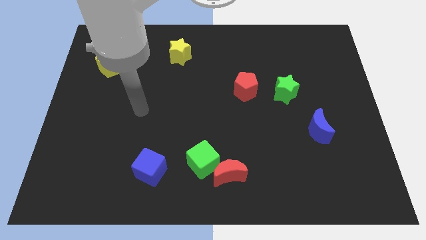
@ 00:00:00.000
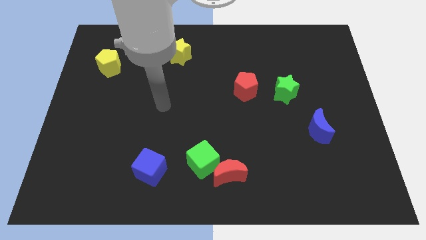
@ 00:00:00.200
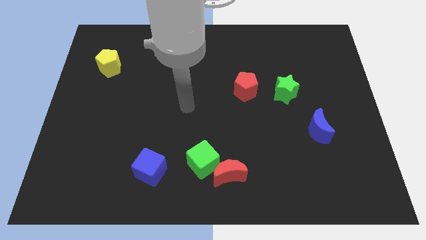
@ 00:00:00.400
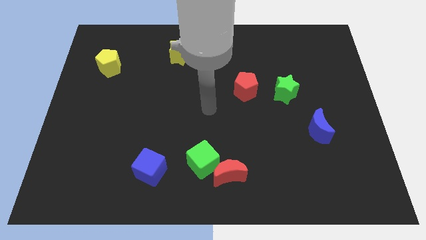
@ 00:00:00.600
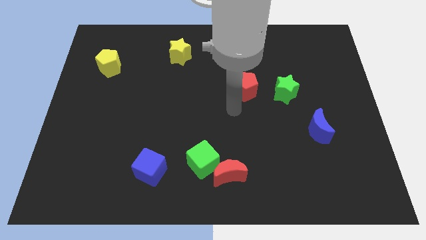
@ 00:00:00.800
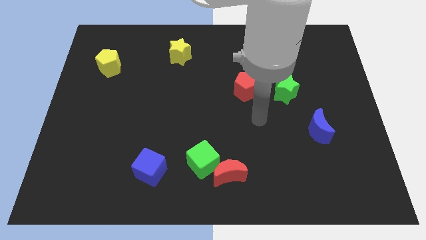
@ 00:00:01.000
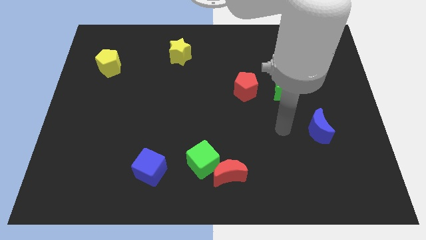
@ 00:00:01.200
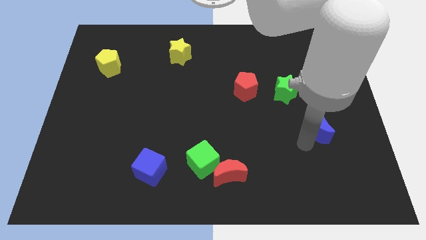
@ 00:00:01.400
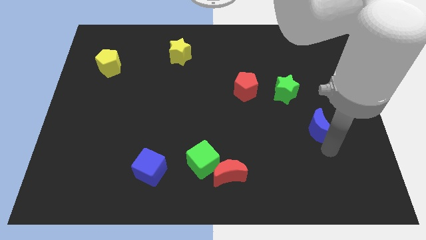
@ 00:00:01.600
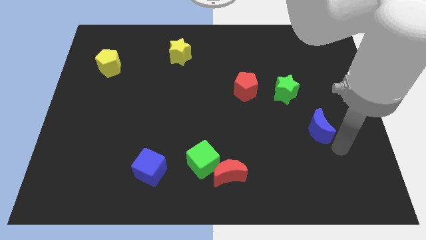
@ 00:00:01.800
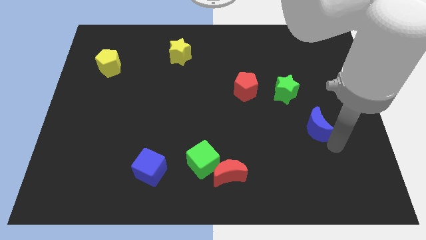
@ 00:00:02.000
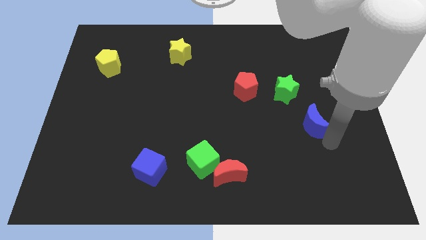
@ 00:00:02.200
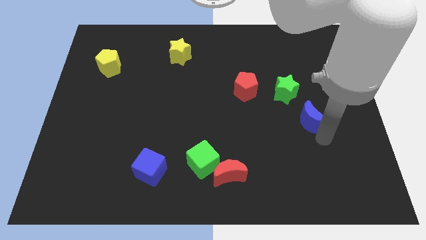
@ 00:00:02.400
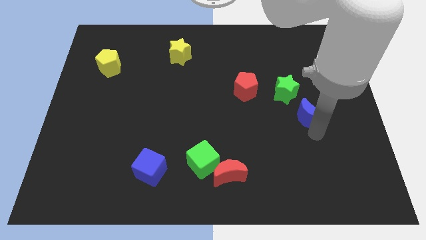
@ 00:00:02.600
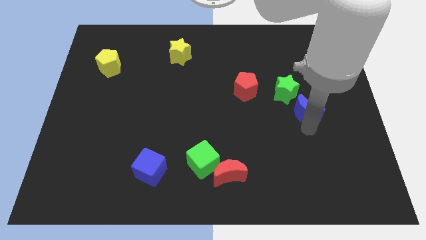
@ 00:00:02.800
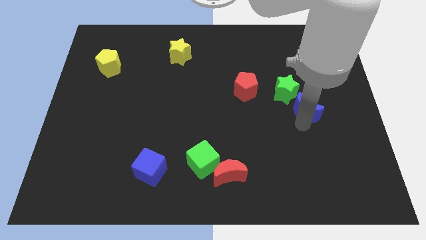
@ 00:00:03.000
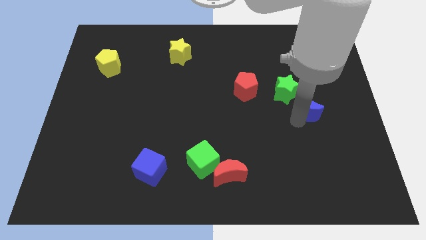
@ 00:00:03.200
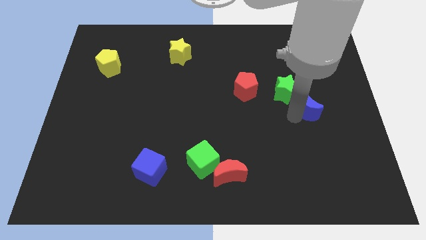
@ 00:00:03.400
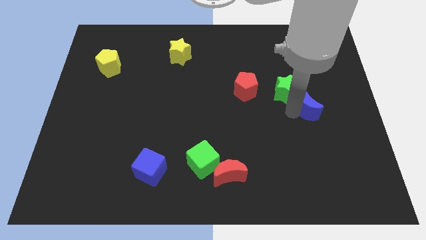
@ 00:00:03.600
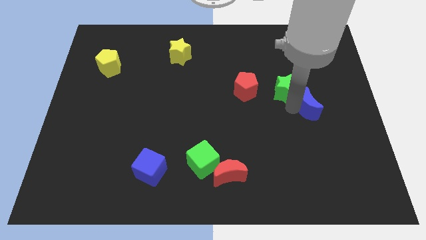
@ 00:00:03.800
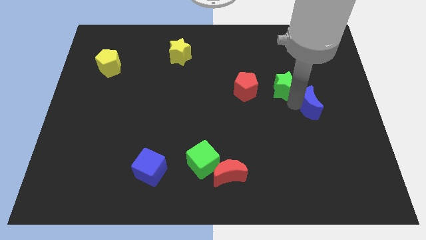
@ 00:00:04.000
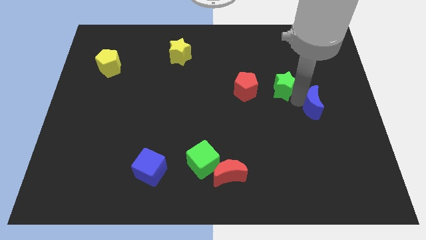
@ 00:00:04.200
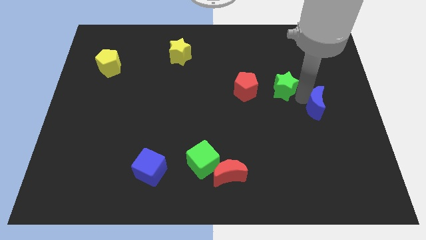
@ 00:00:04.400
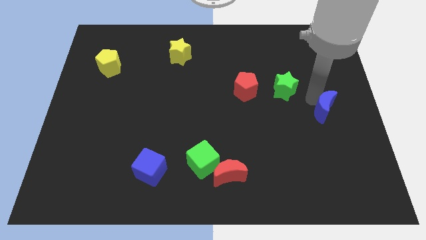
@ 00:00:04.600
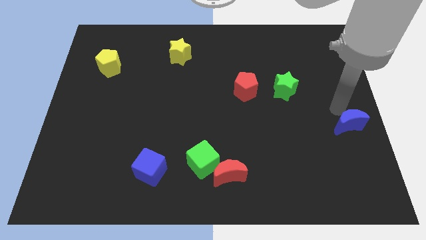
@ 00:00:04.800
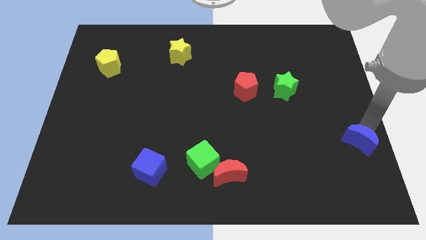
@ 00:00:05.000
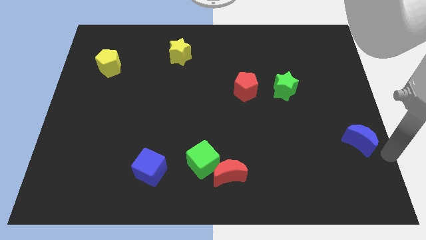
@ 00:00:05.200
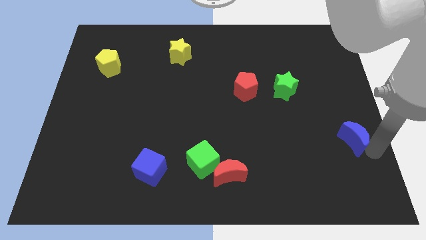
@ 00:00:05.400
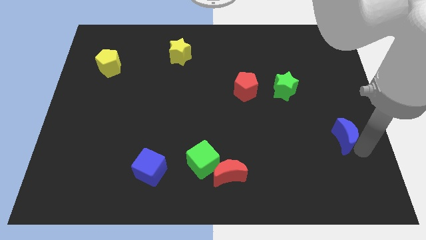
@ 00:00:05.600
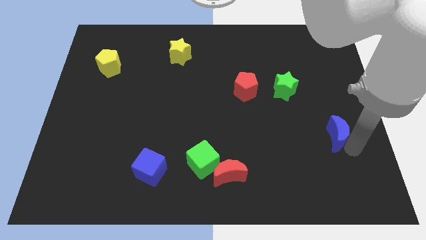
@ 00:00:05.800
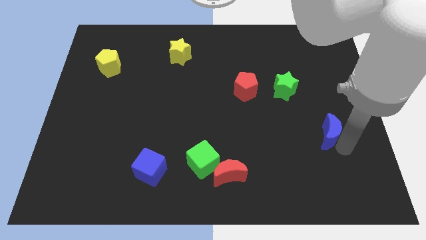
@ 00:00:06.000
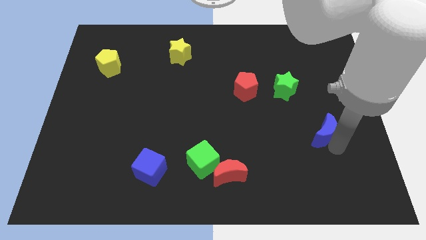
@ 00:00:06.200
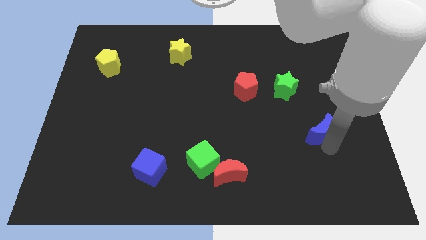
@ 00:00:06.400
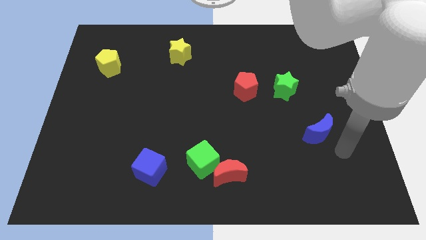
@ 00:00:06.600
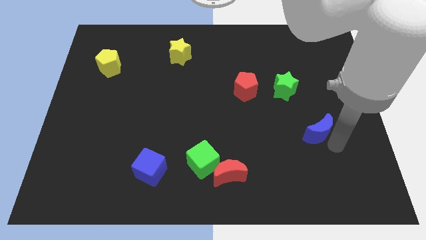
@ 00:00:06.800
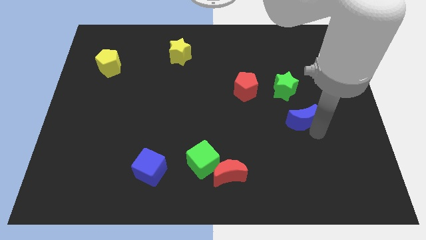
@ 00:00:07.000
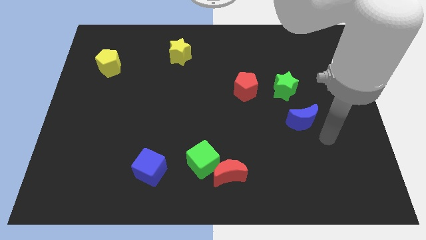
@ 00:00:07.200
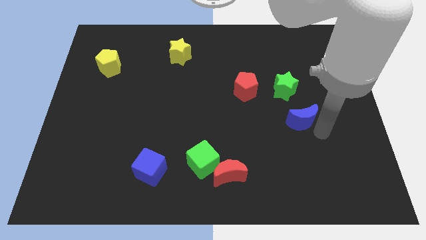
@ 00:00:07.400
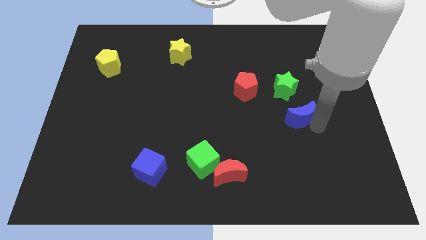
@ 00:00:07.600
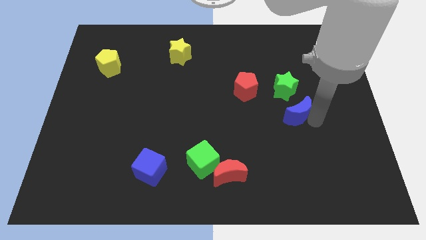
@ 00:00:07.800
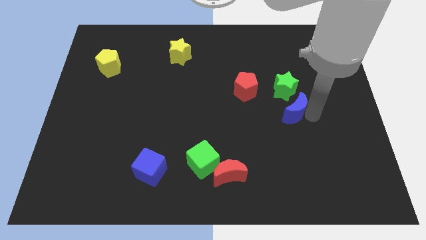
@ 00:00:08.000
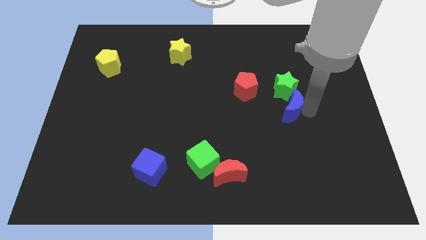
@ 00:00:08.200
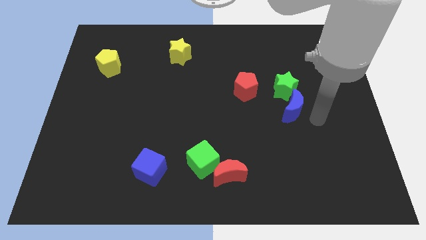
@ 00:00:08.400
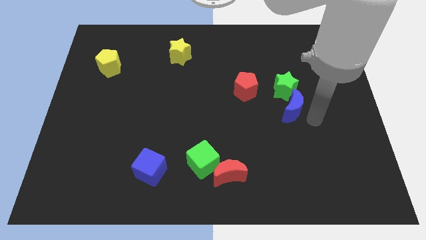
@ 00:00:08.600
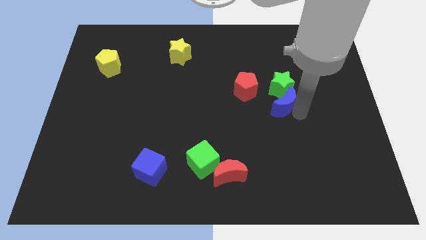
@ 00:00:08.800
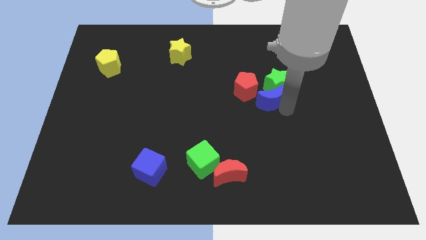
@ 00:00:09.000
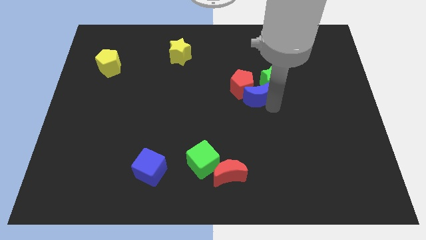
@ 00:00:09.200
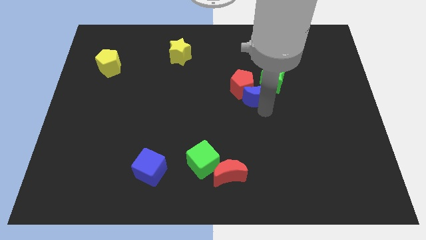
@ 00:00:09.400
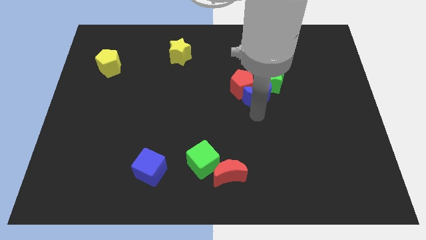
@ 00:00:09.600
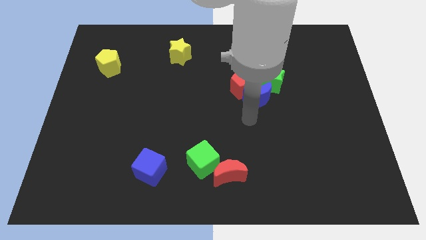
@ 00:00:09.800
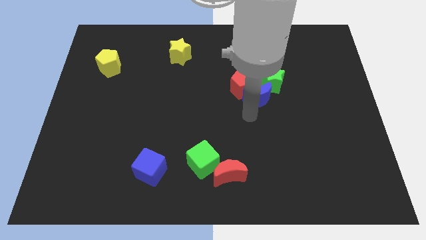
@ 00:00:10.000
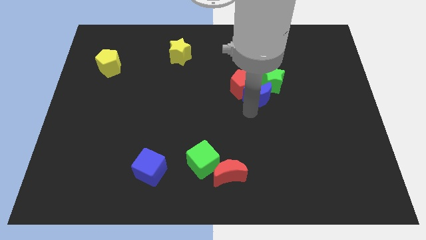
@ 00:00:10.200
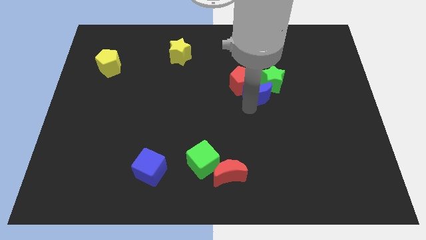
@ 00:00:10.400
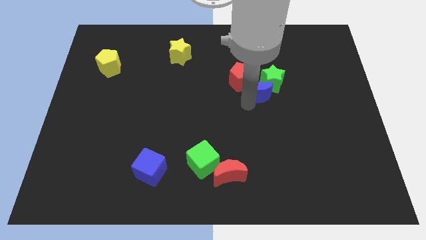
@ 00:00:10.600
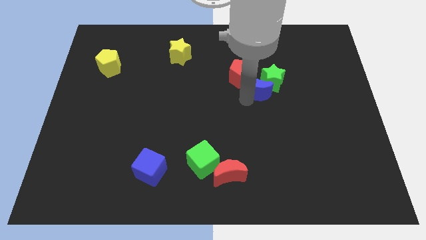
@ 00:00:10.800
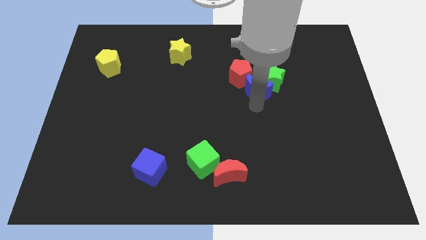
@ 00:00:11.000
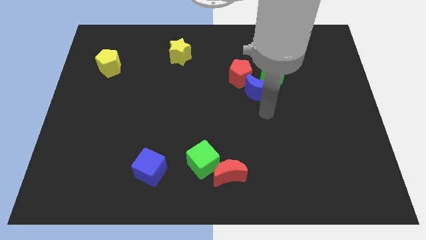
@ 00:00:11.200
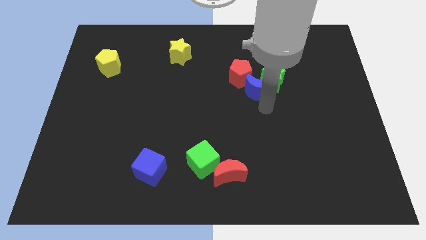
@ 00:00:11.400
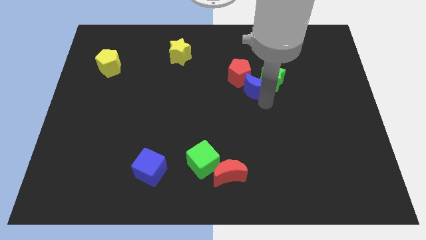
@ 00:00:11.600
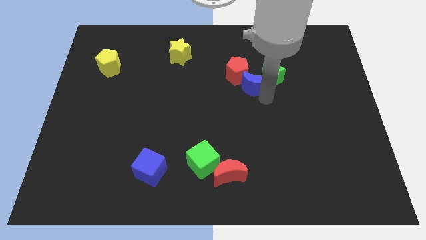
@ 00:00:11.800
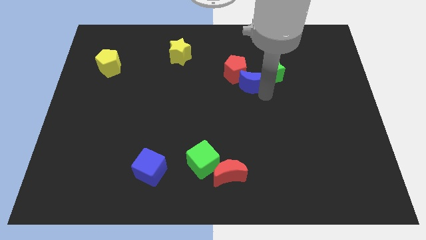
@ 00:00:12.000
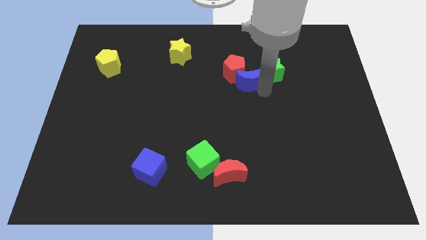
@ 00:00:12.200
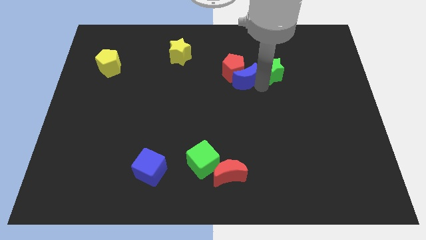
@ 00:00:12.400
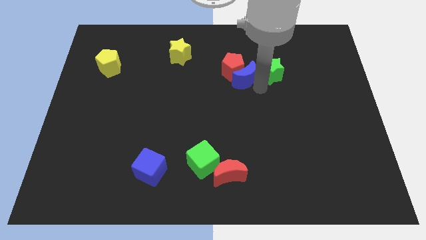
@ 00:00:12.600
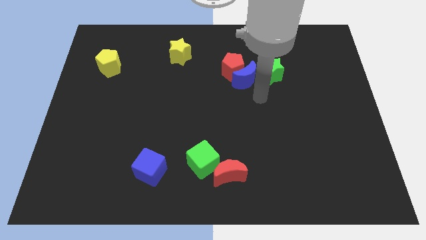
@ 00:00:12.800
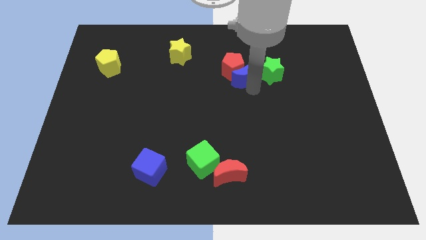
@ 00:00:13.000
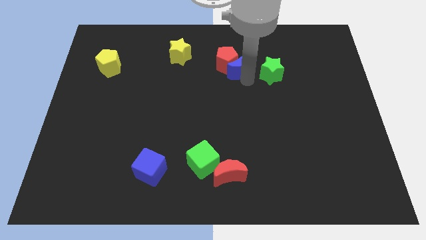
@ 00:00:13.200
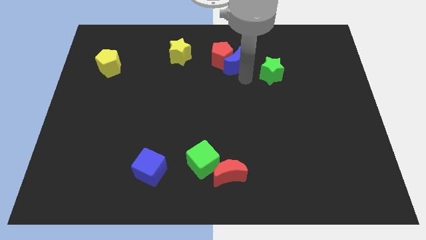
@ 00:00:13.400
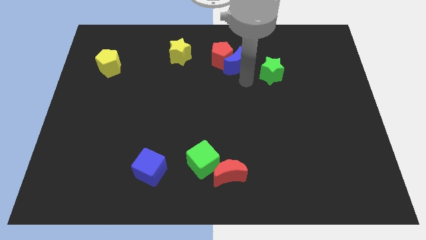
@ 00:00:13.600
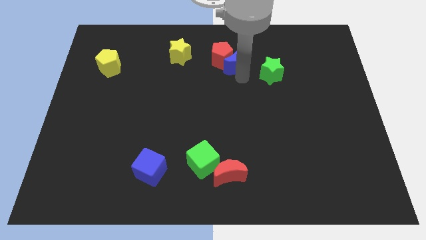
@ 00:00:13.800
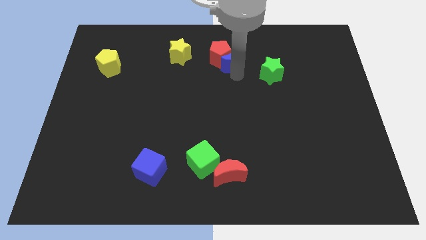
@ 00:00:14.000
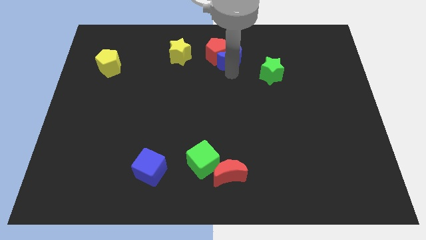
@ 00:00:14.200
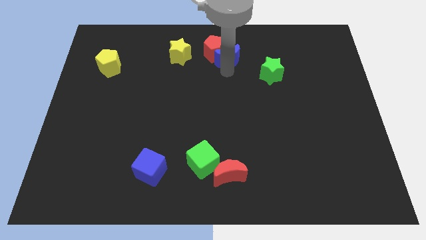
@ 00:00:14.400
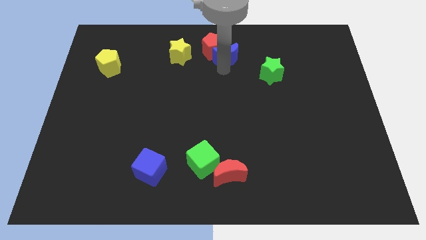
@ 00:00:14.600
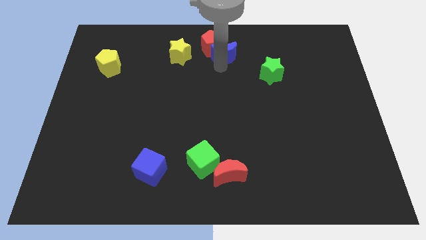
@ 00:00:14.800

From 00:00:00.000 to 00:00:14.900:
move the blue moon to the top side
